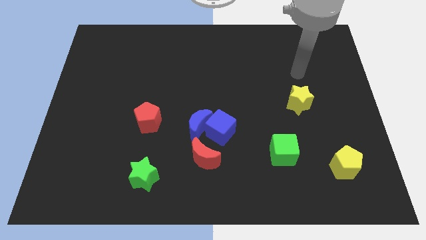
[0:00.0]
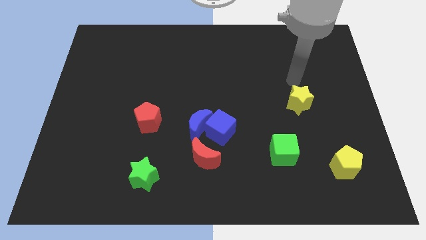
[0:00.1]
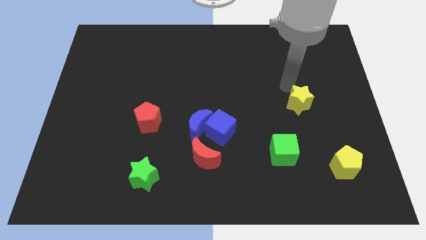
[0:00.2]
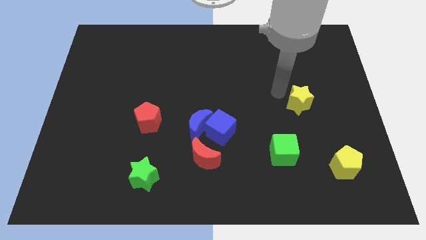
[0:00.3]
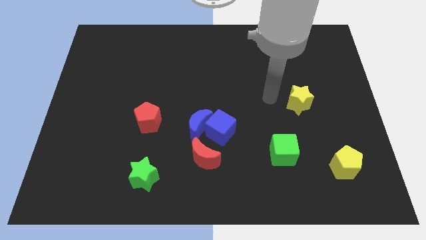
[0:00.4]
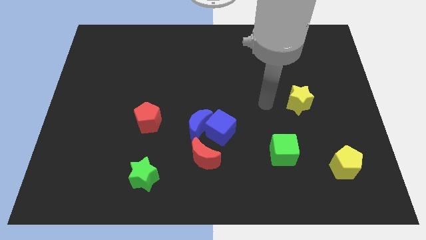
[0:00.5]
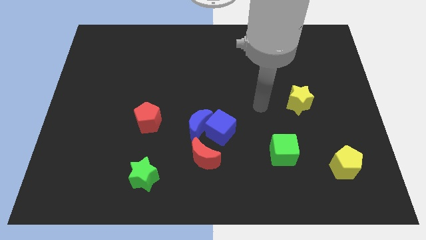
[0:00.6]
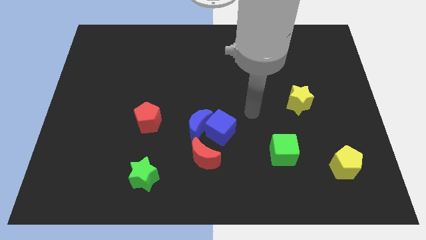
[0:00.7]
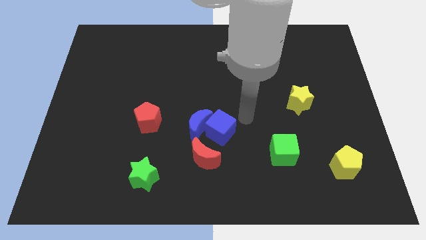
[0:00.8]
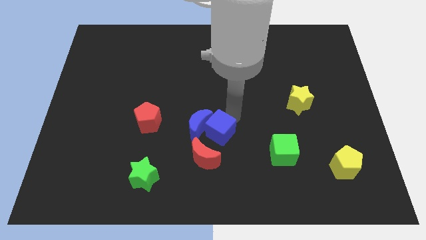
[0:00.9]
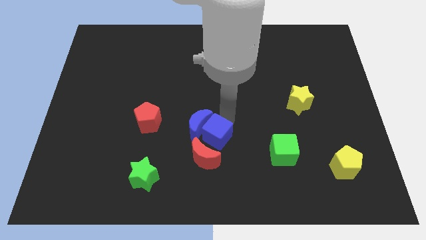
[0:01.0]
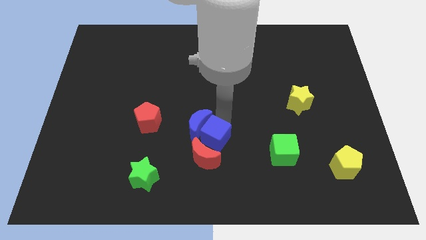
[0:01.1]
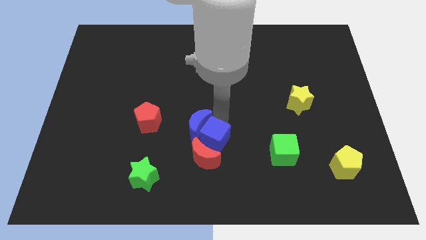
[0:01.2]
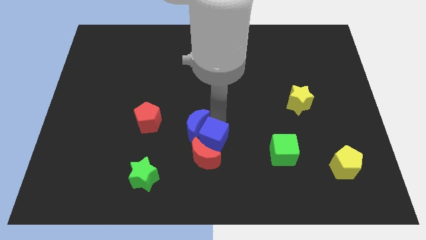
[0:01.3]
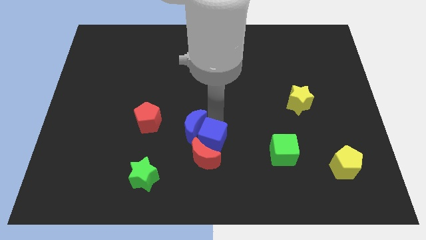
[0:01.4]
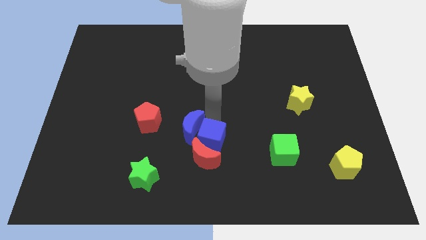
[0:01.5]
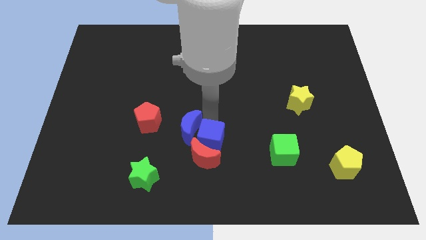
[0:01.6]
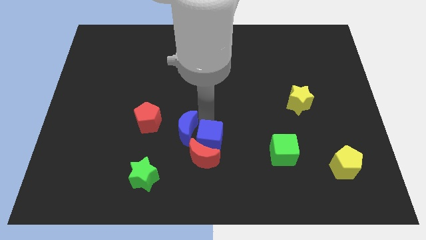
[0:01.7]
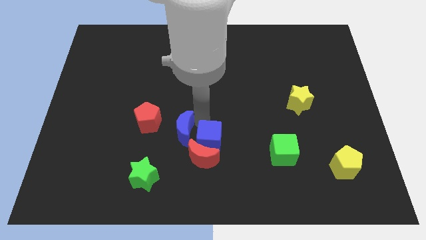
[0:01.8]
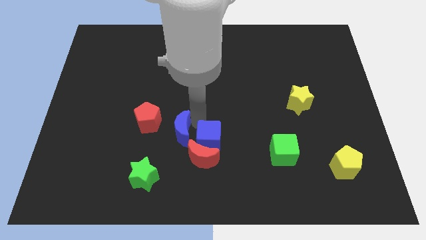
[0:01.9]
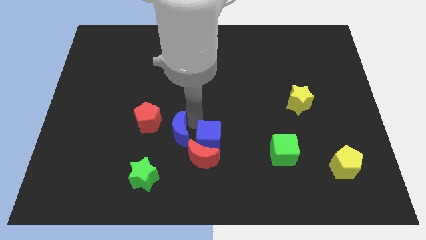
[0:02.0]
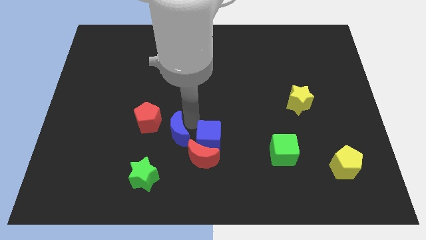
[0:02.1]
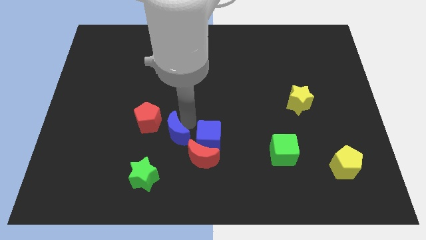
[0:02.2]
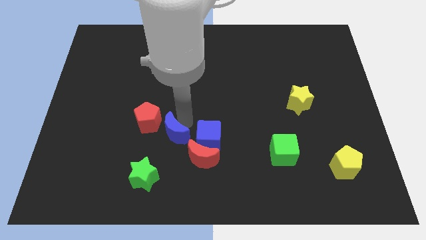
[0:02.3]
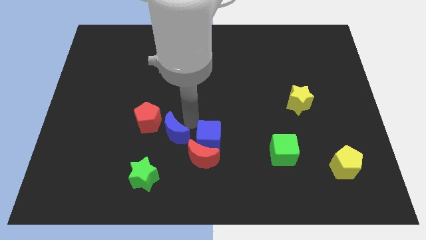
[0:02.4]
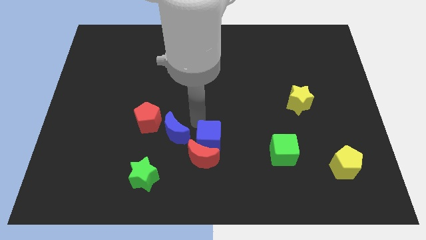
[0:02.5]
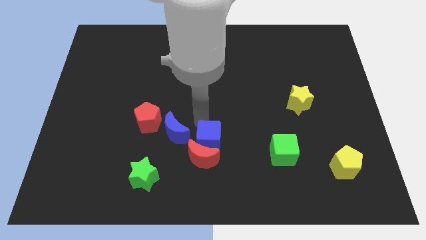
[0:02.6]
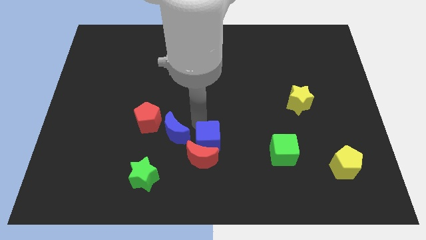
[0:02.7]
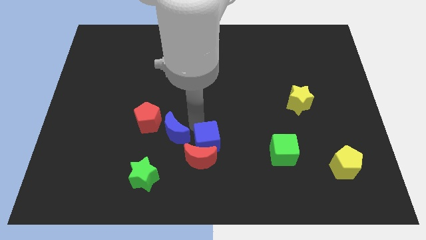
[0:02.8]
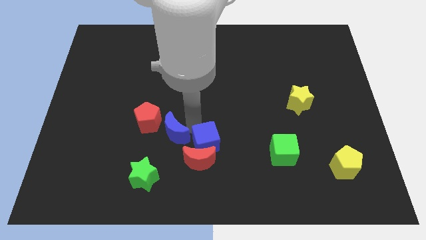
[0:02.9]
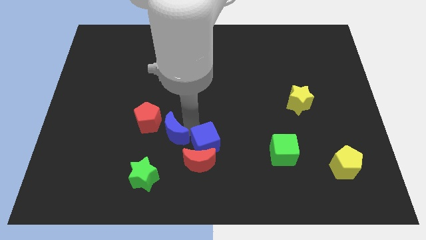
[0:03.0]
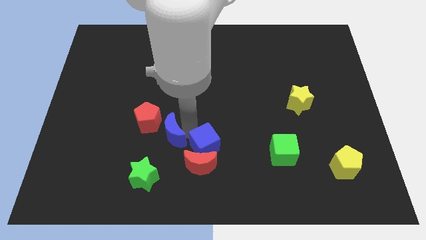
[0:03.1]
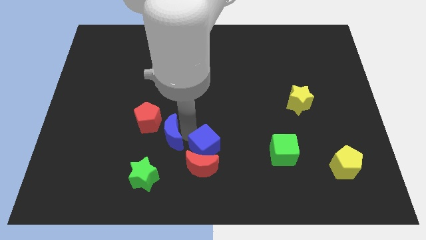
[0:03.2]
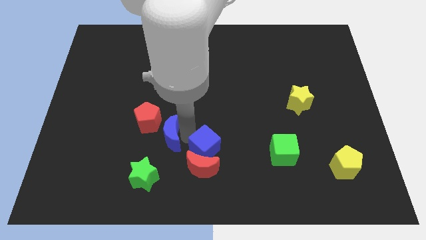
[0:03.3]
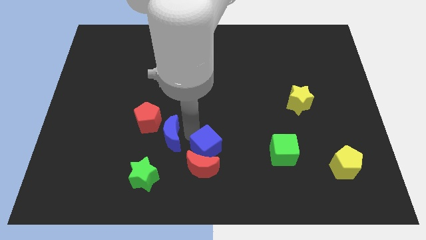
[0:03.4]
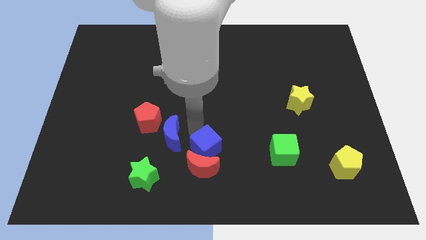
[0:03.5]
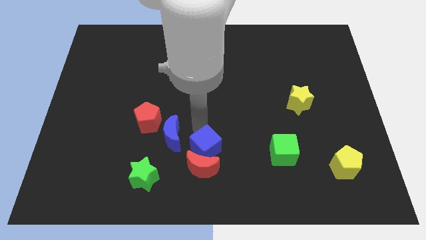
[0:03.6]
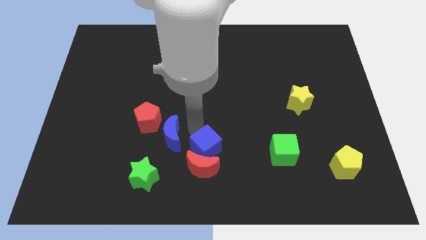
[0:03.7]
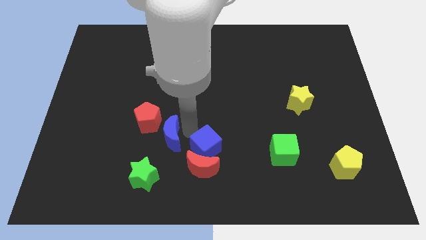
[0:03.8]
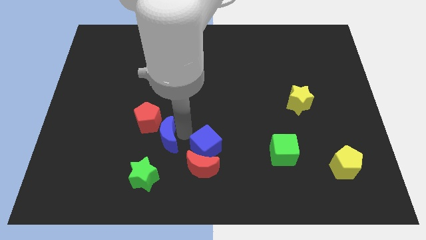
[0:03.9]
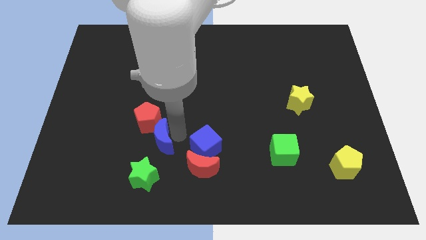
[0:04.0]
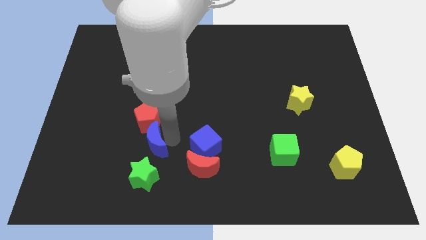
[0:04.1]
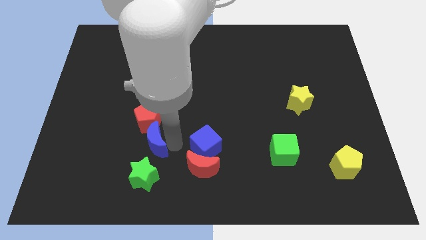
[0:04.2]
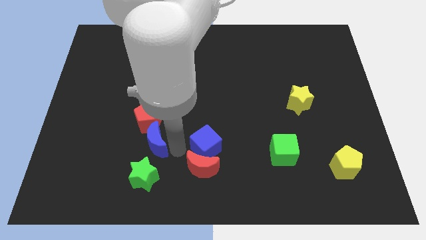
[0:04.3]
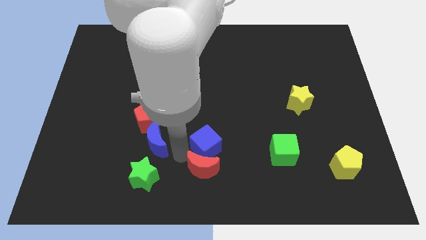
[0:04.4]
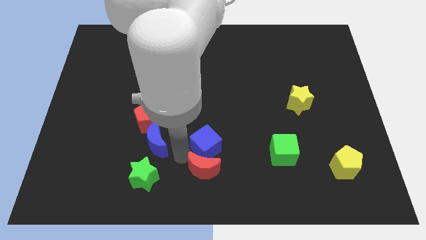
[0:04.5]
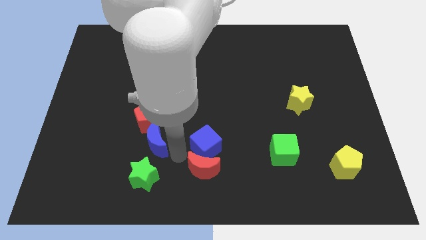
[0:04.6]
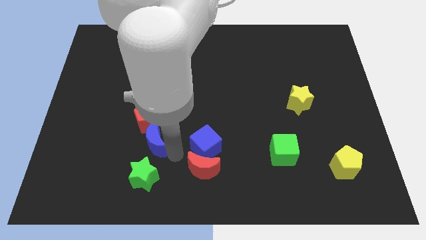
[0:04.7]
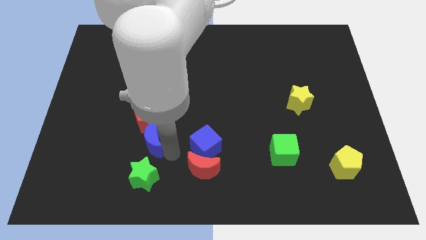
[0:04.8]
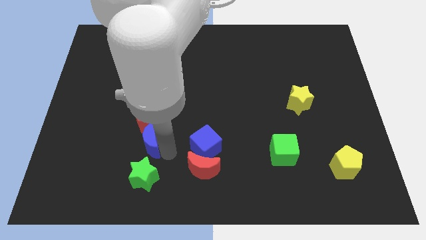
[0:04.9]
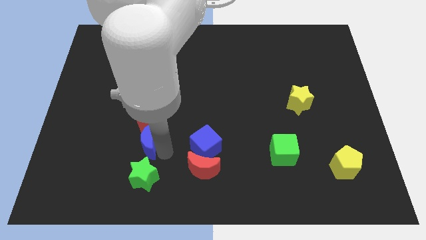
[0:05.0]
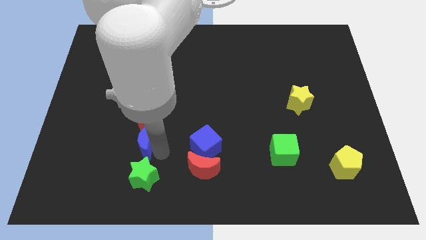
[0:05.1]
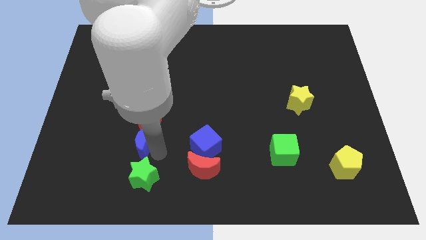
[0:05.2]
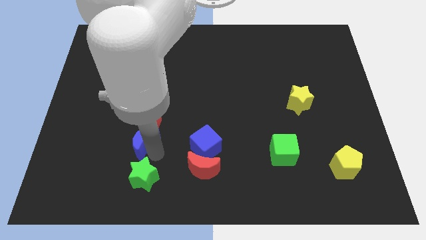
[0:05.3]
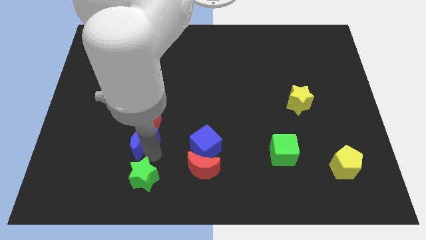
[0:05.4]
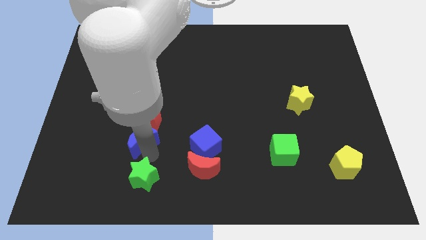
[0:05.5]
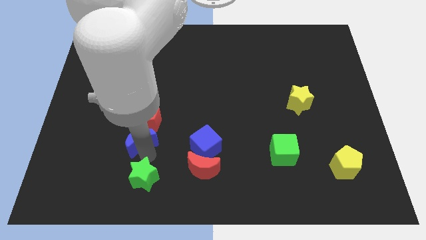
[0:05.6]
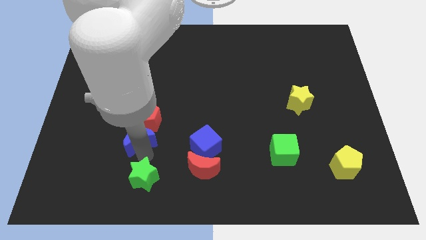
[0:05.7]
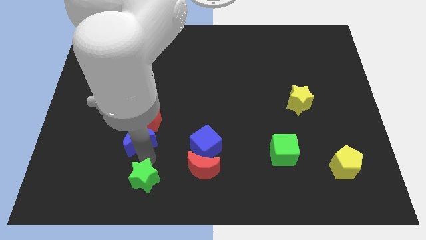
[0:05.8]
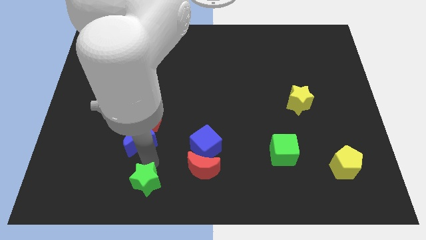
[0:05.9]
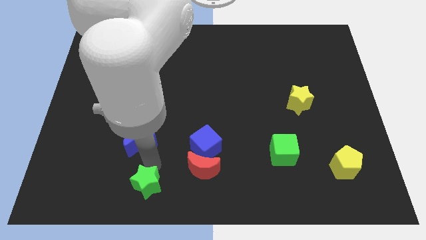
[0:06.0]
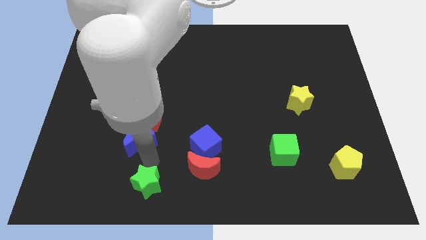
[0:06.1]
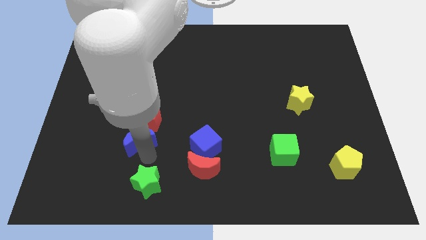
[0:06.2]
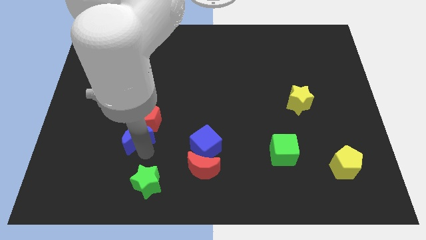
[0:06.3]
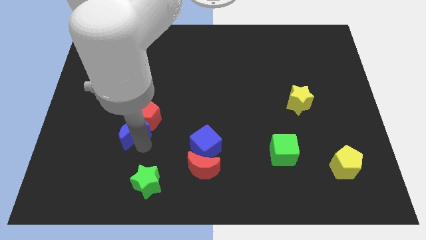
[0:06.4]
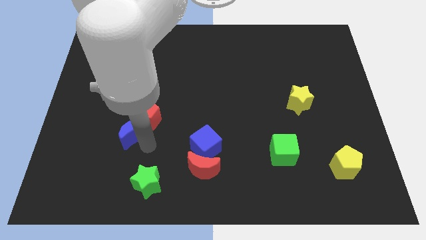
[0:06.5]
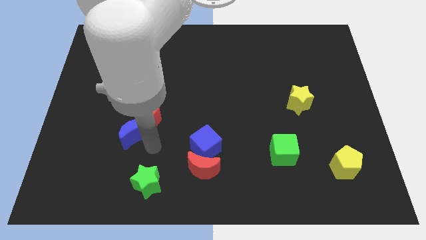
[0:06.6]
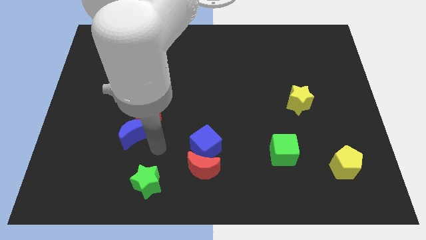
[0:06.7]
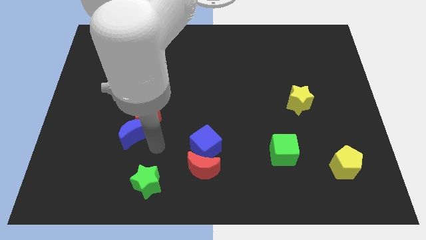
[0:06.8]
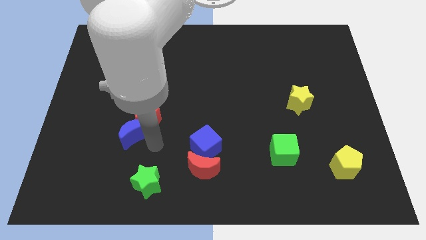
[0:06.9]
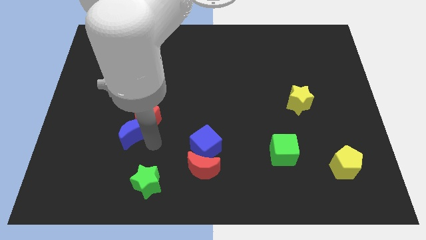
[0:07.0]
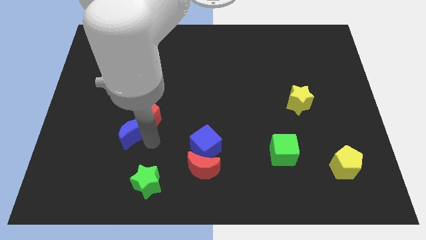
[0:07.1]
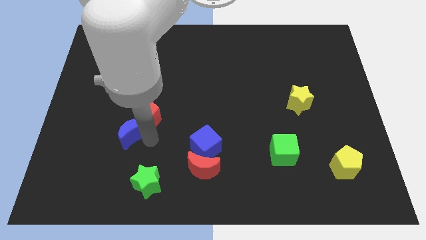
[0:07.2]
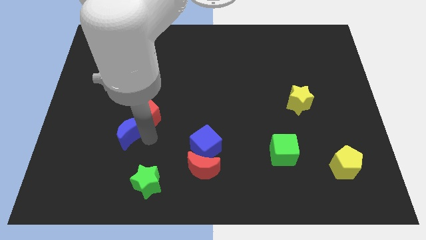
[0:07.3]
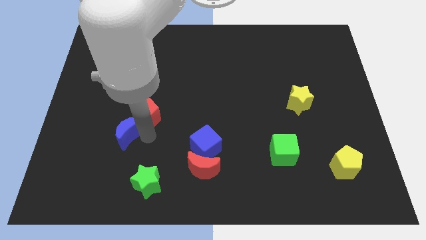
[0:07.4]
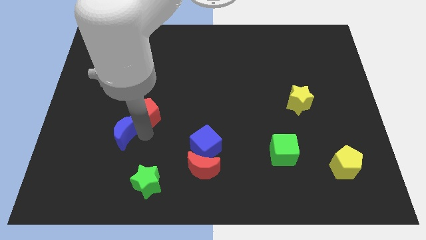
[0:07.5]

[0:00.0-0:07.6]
put the blue moon just left of the red pentagon
